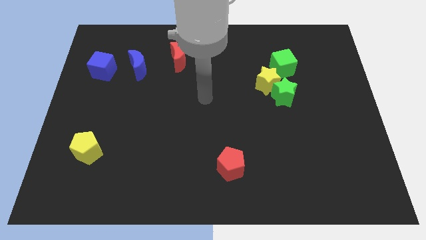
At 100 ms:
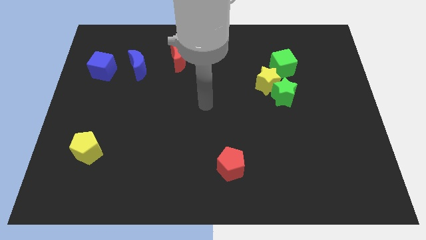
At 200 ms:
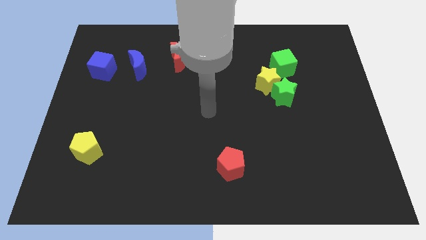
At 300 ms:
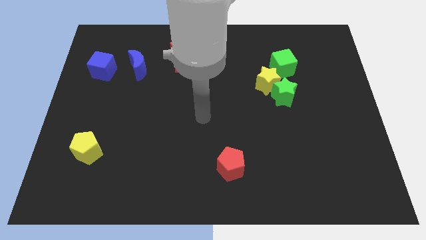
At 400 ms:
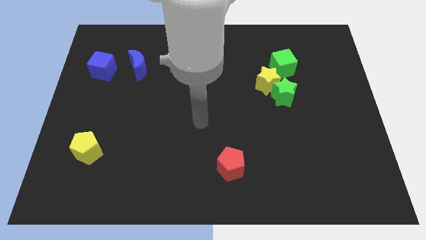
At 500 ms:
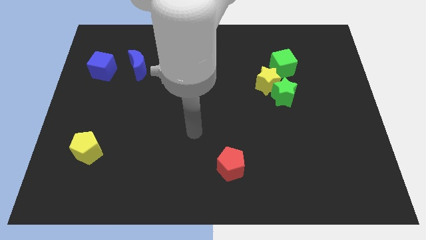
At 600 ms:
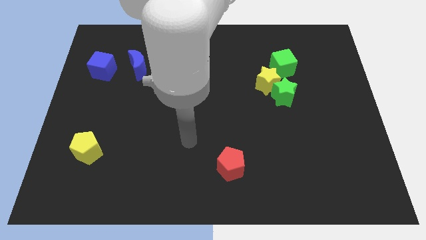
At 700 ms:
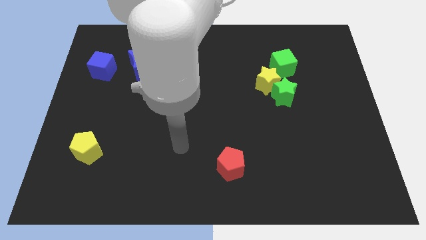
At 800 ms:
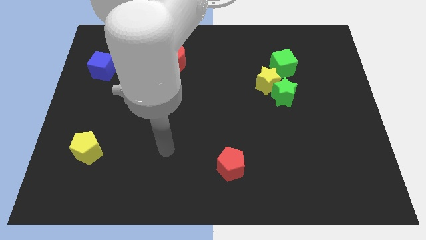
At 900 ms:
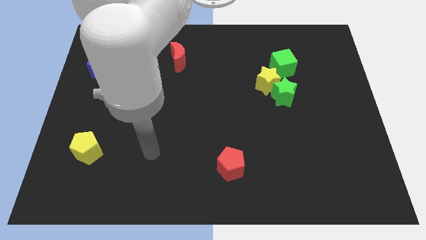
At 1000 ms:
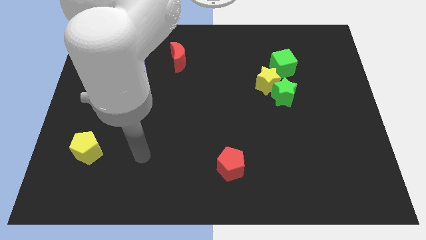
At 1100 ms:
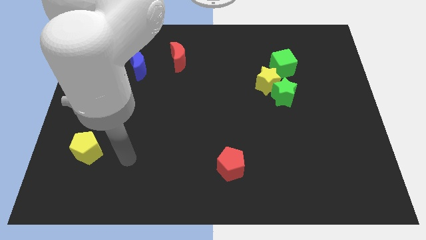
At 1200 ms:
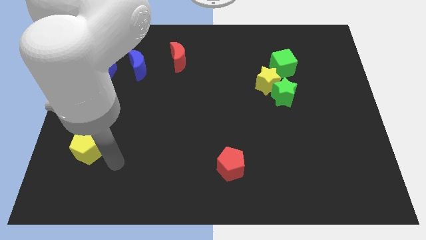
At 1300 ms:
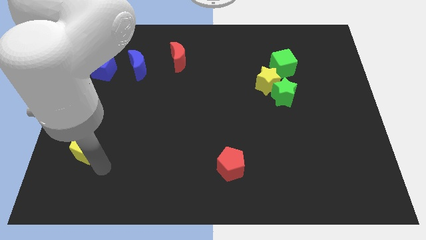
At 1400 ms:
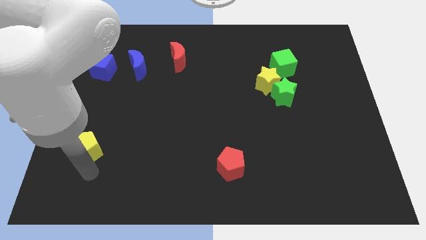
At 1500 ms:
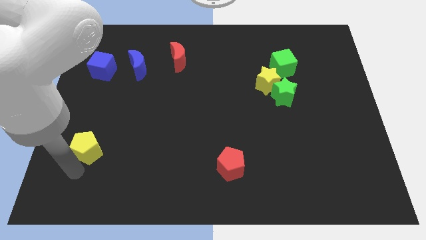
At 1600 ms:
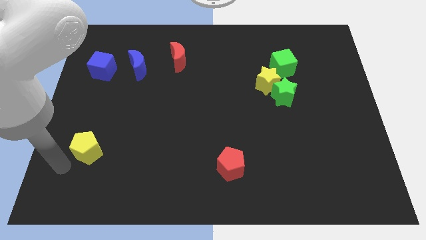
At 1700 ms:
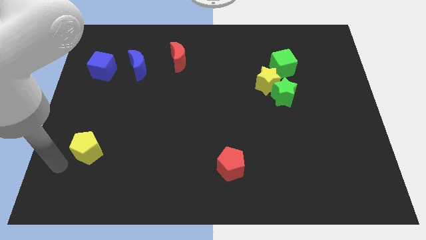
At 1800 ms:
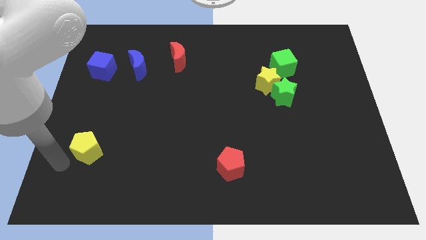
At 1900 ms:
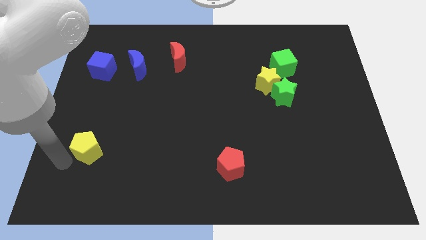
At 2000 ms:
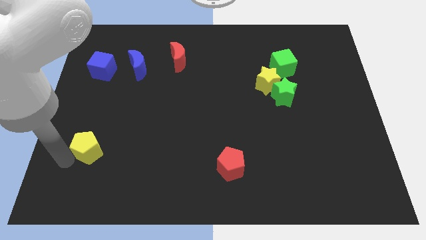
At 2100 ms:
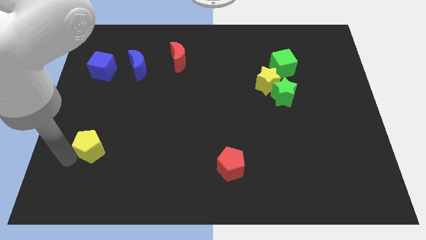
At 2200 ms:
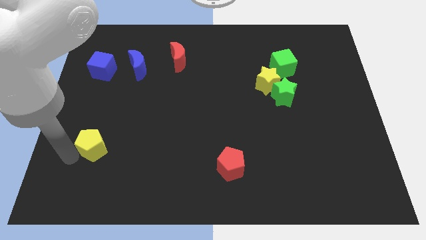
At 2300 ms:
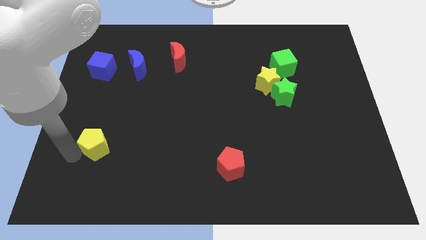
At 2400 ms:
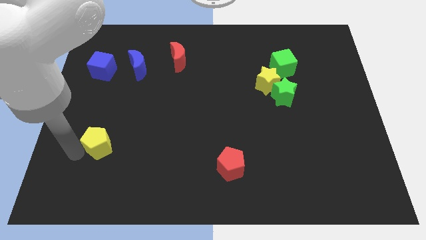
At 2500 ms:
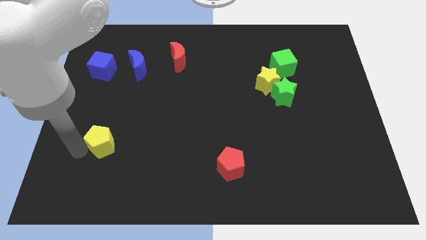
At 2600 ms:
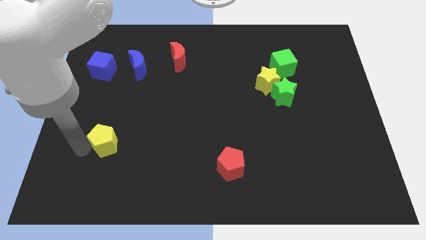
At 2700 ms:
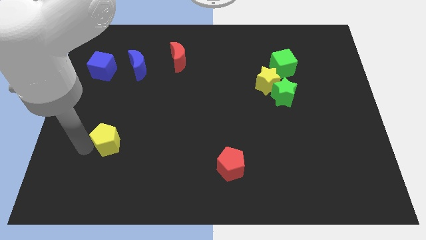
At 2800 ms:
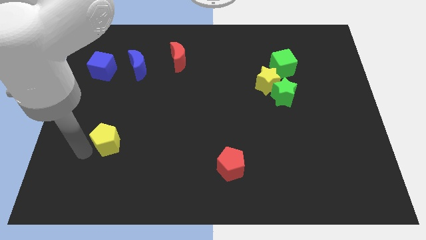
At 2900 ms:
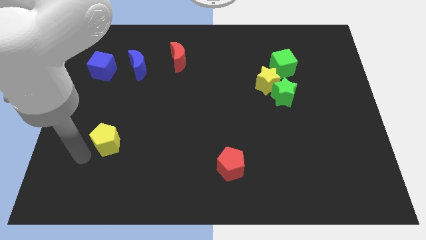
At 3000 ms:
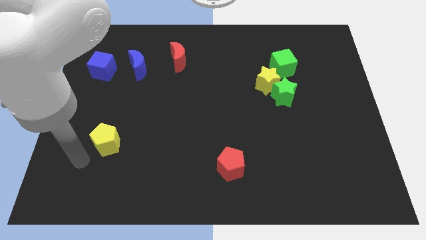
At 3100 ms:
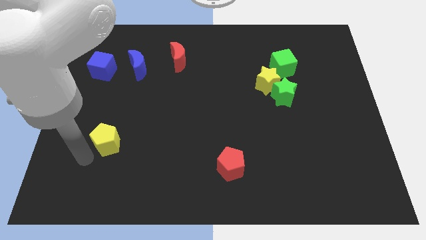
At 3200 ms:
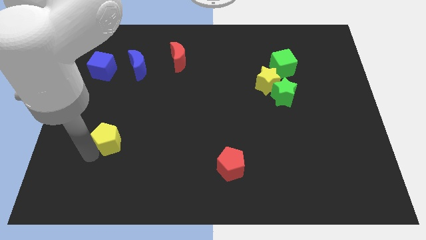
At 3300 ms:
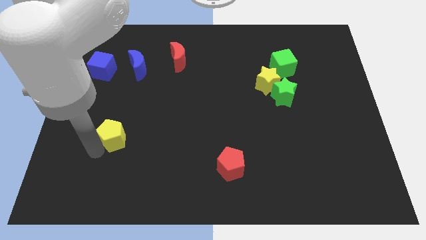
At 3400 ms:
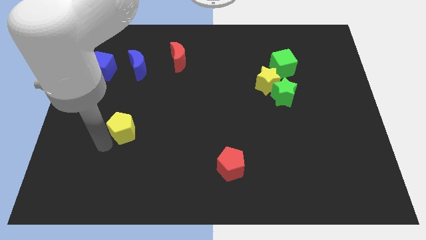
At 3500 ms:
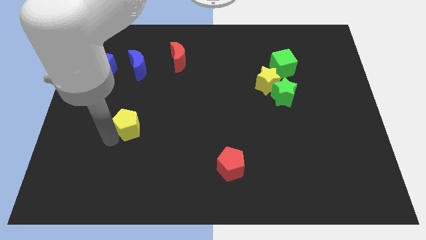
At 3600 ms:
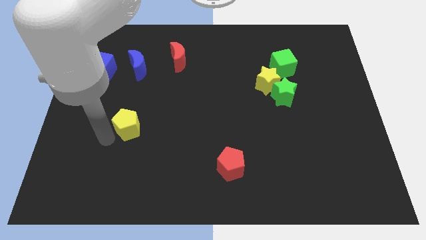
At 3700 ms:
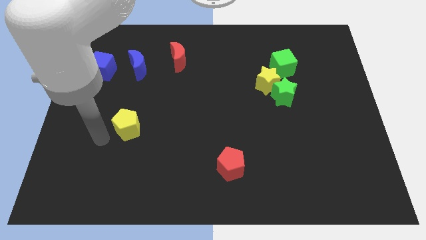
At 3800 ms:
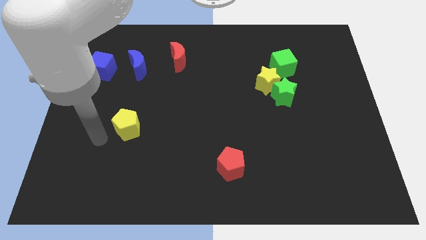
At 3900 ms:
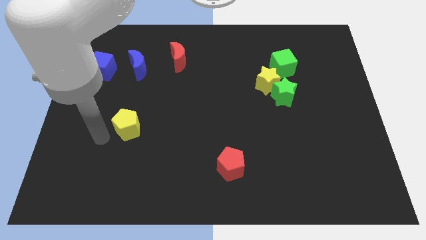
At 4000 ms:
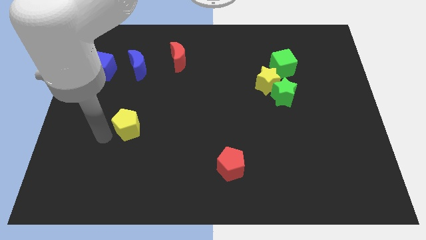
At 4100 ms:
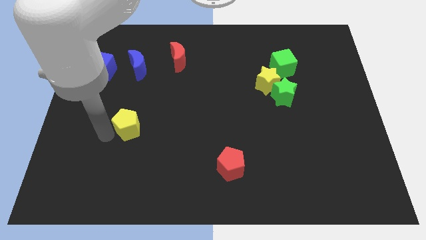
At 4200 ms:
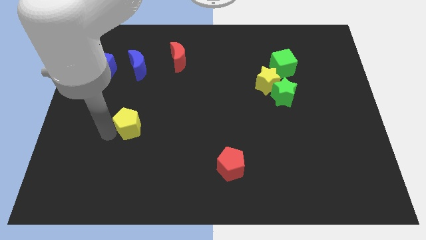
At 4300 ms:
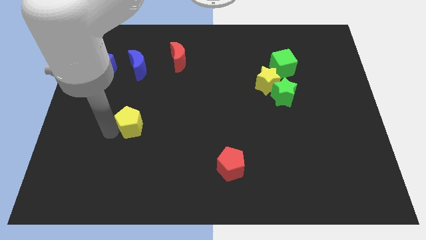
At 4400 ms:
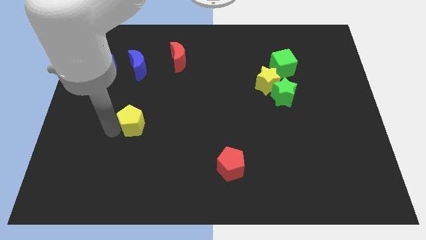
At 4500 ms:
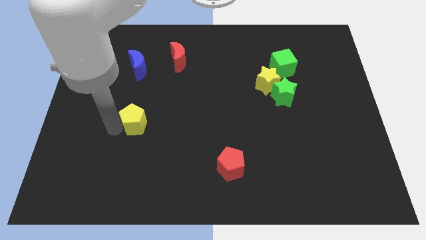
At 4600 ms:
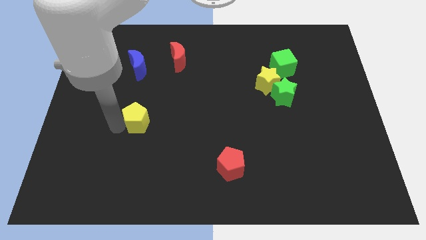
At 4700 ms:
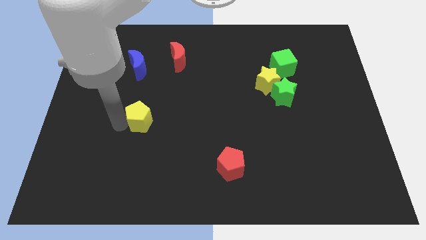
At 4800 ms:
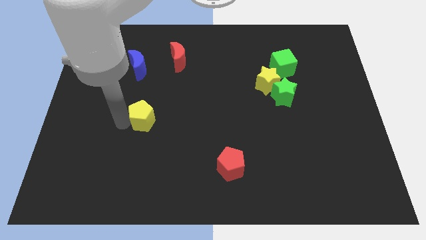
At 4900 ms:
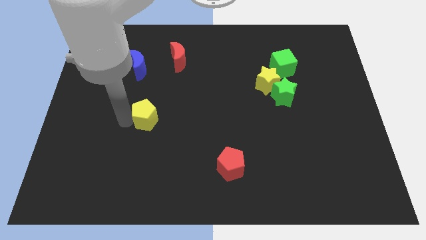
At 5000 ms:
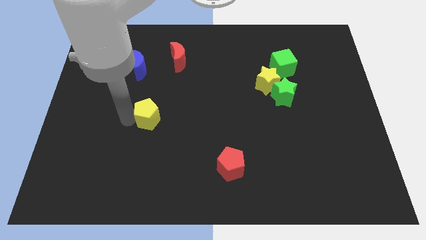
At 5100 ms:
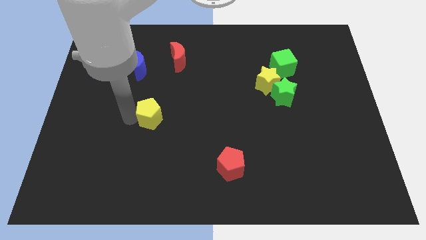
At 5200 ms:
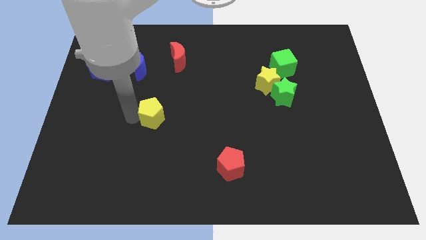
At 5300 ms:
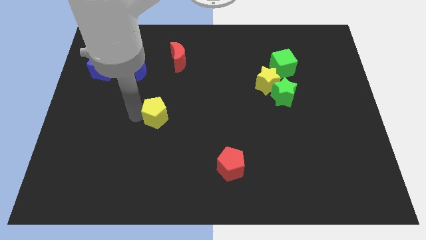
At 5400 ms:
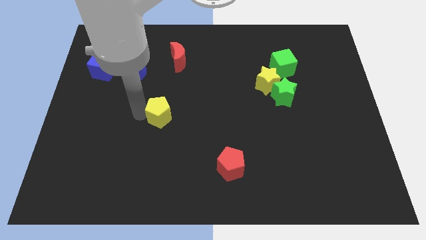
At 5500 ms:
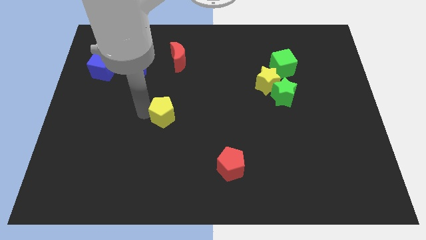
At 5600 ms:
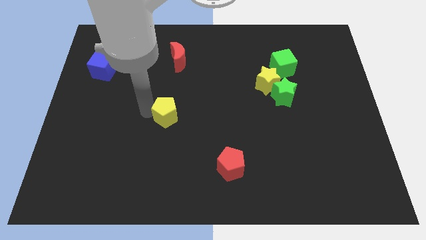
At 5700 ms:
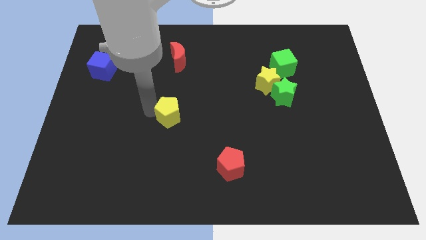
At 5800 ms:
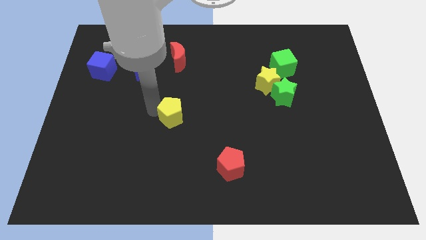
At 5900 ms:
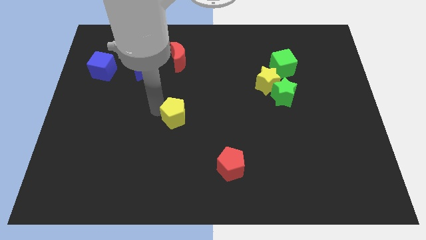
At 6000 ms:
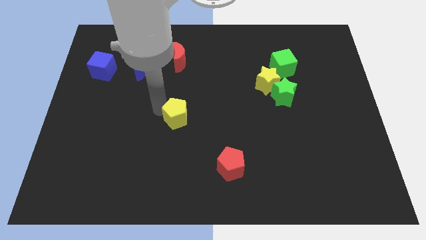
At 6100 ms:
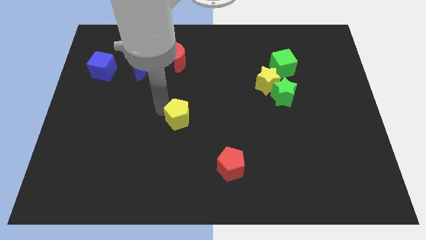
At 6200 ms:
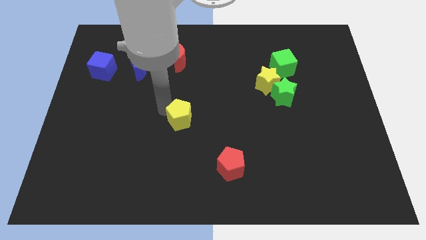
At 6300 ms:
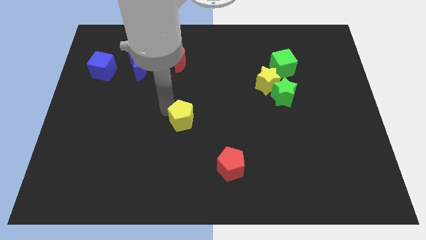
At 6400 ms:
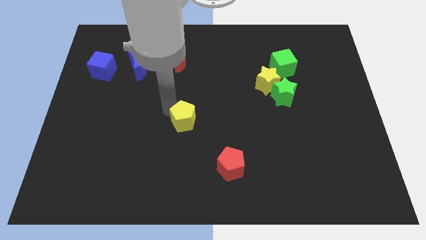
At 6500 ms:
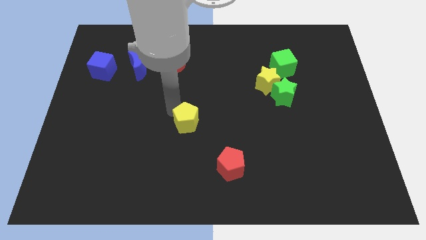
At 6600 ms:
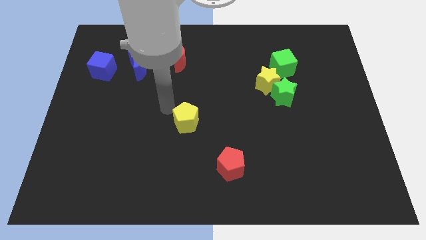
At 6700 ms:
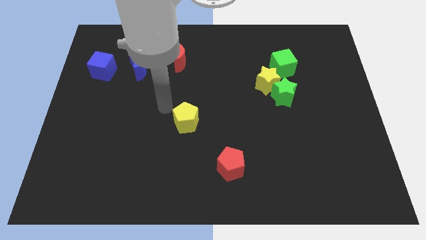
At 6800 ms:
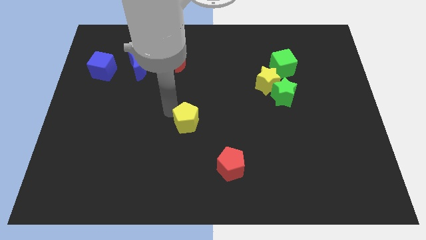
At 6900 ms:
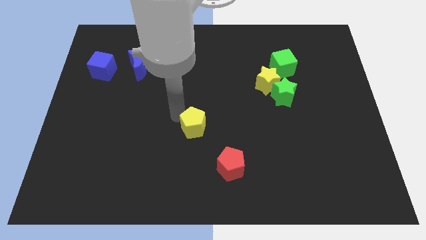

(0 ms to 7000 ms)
push the yellow pentagon right

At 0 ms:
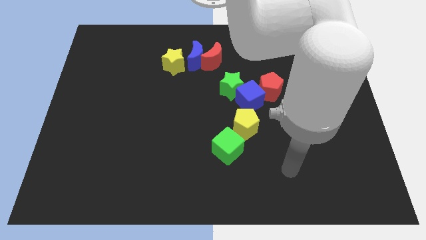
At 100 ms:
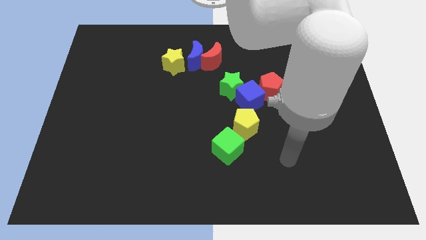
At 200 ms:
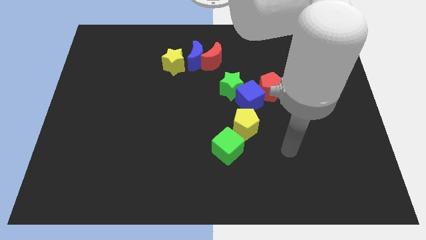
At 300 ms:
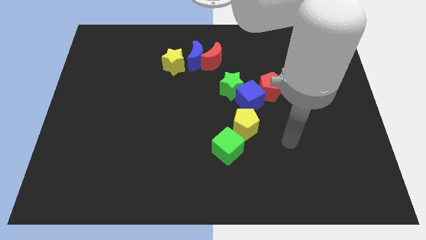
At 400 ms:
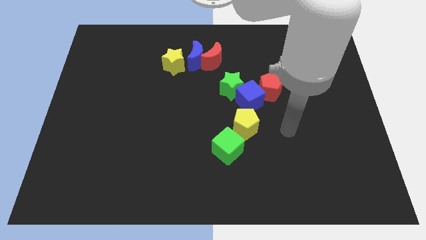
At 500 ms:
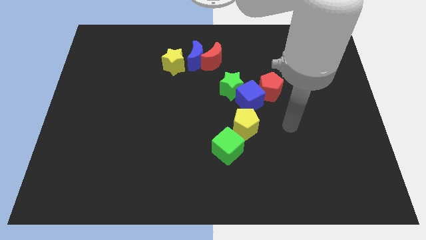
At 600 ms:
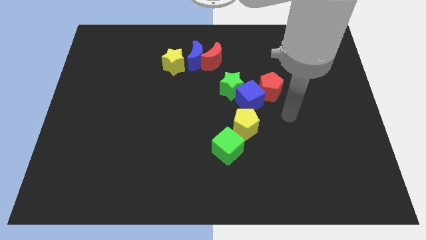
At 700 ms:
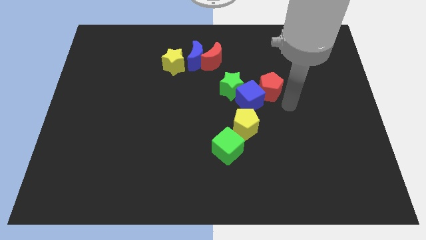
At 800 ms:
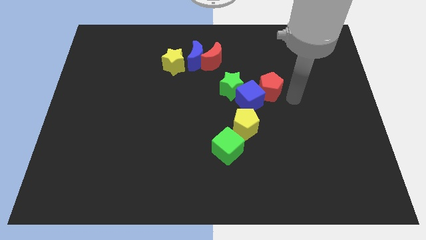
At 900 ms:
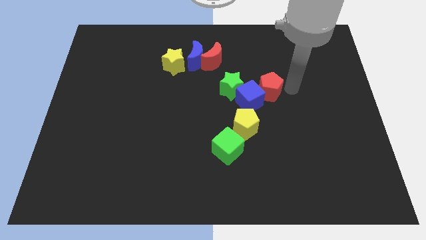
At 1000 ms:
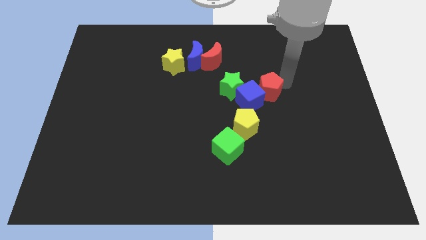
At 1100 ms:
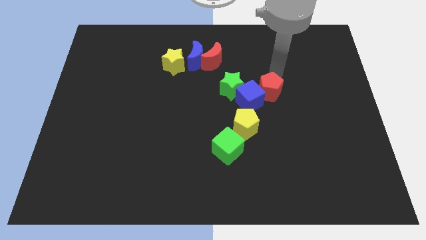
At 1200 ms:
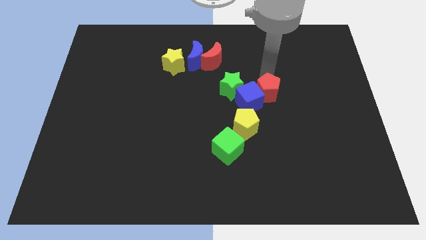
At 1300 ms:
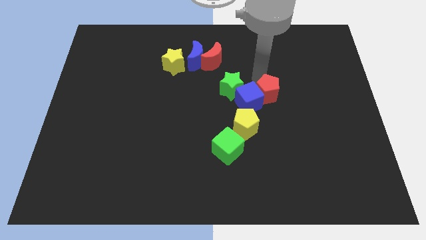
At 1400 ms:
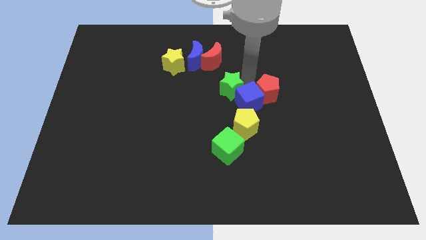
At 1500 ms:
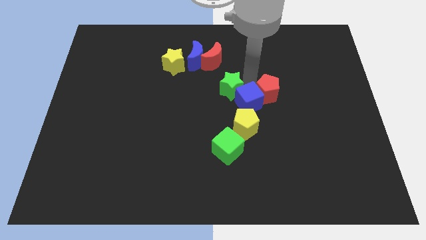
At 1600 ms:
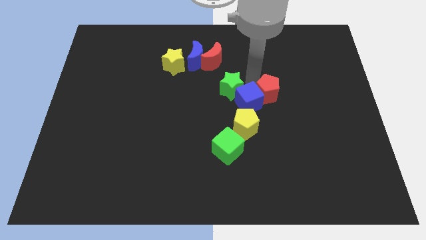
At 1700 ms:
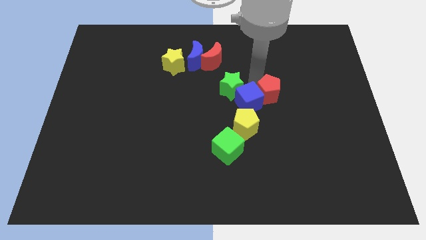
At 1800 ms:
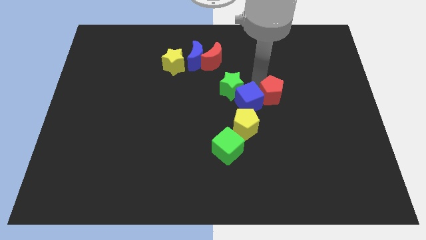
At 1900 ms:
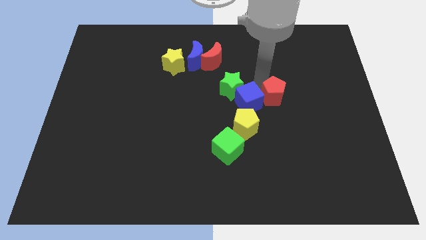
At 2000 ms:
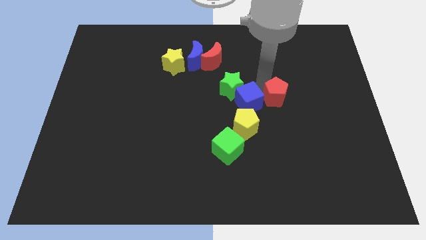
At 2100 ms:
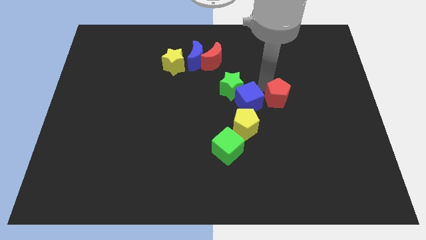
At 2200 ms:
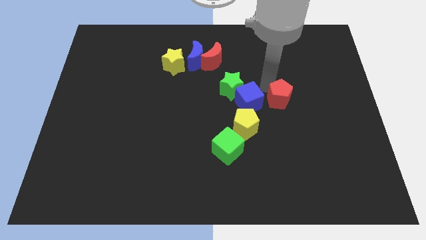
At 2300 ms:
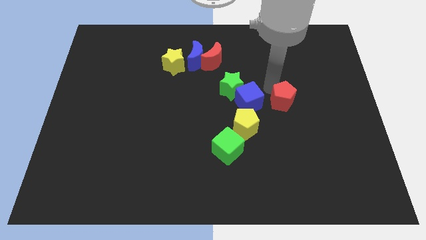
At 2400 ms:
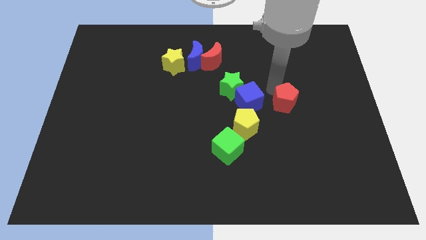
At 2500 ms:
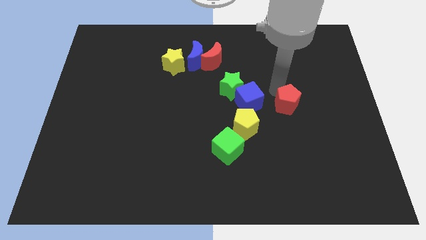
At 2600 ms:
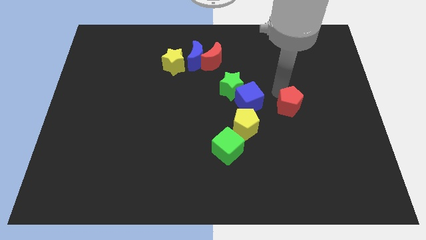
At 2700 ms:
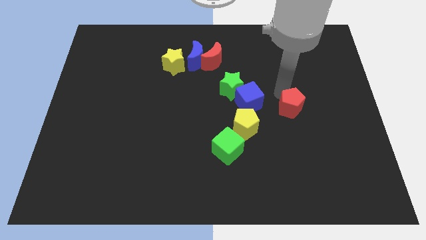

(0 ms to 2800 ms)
push the red pentagon a little bit down and then to the right
